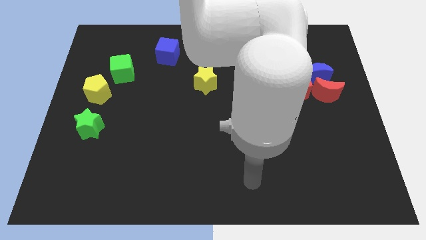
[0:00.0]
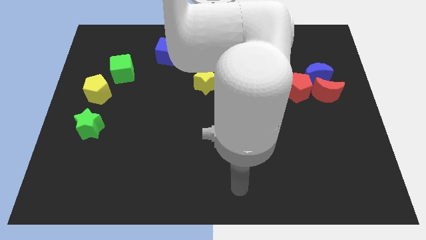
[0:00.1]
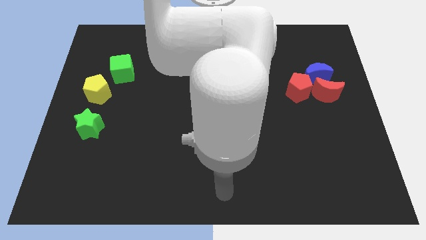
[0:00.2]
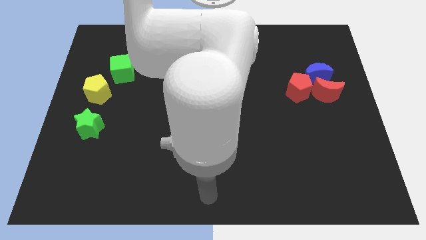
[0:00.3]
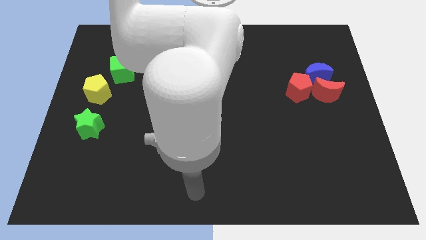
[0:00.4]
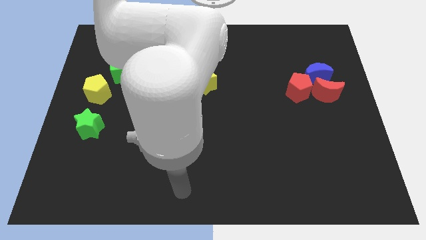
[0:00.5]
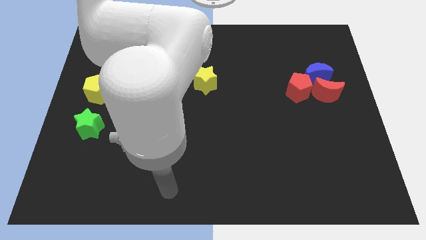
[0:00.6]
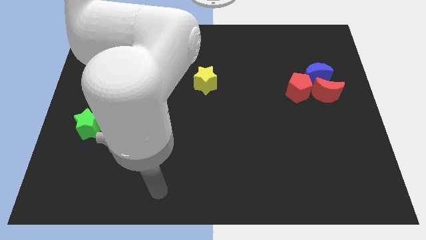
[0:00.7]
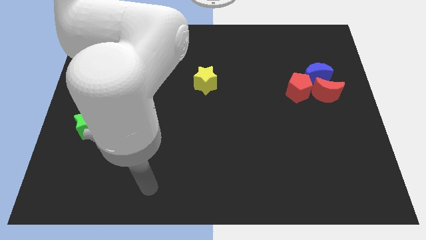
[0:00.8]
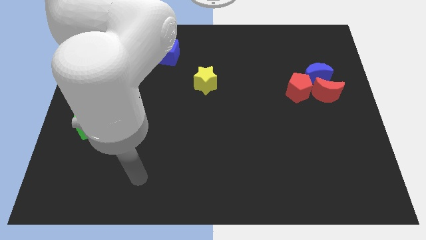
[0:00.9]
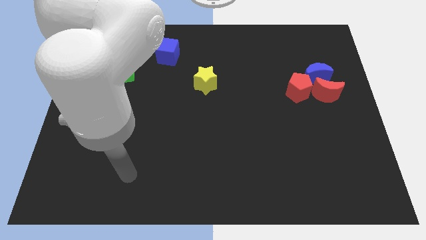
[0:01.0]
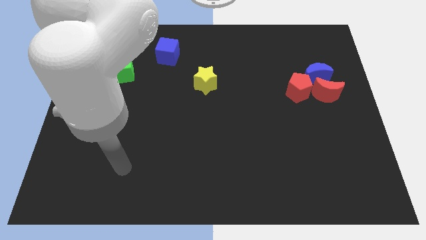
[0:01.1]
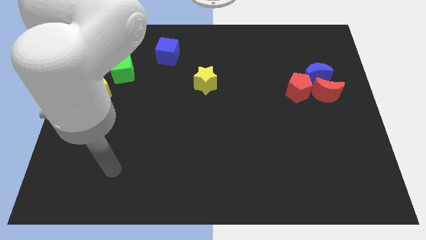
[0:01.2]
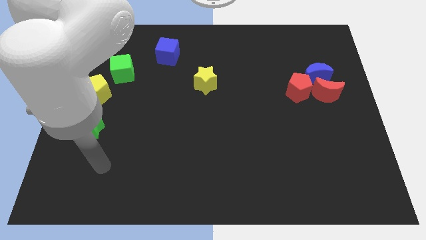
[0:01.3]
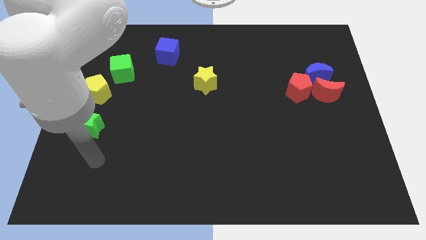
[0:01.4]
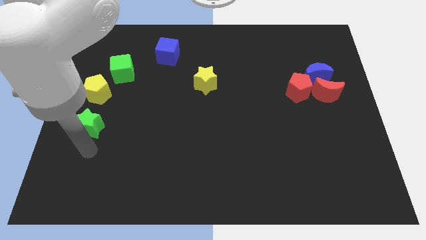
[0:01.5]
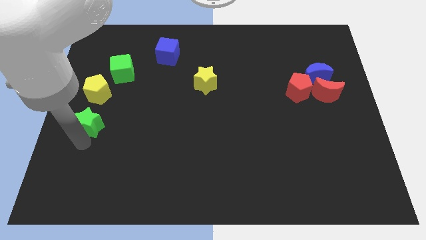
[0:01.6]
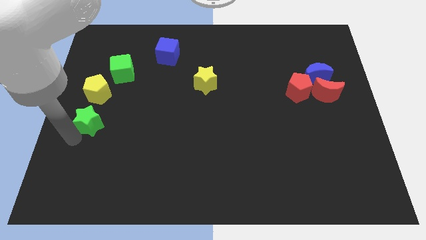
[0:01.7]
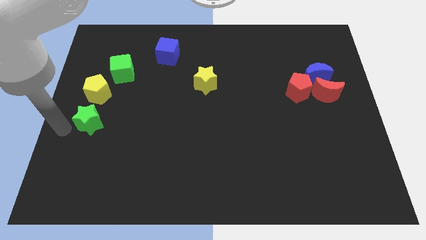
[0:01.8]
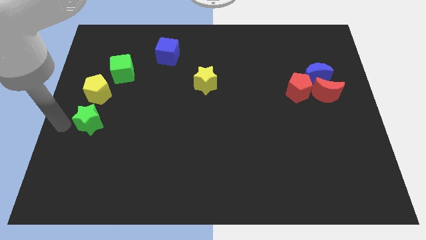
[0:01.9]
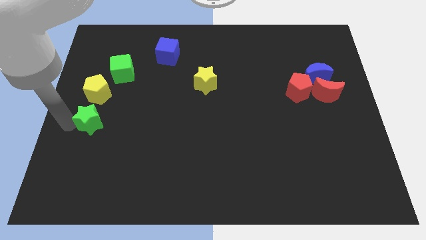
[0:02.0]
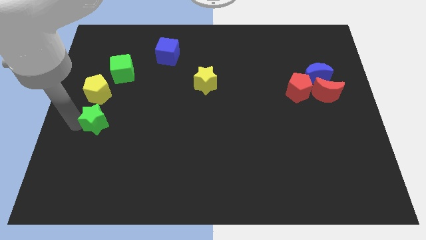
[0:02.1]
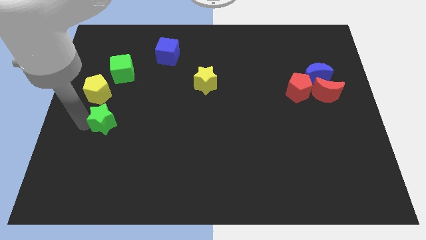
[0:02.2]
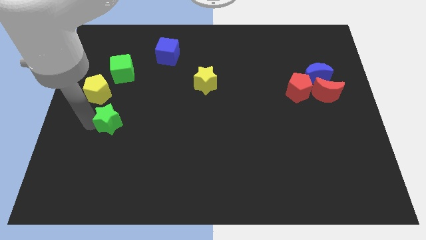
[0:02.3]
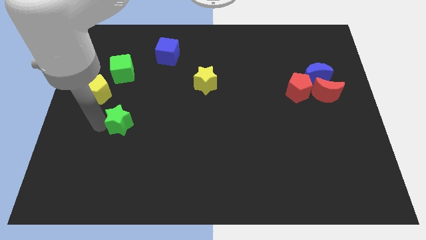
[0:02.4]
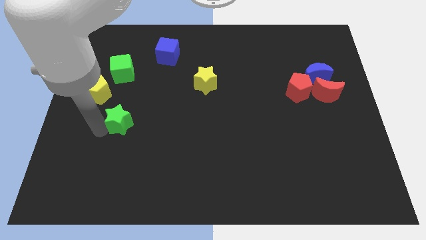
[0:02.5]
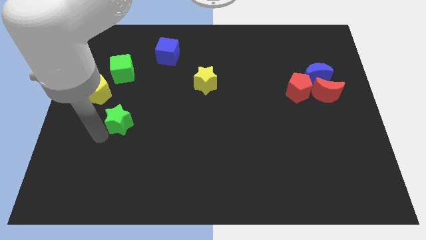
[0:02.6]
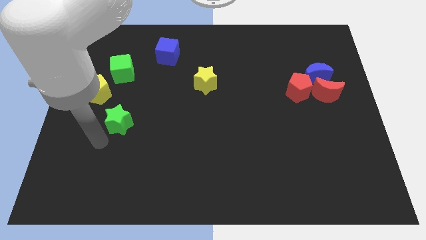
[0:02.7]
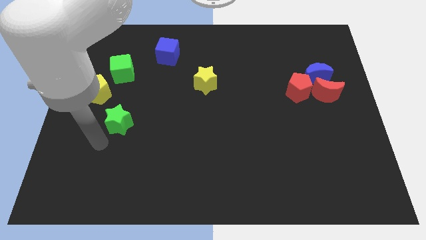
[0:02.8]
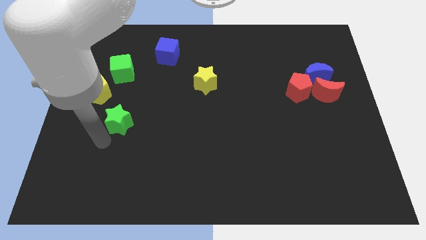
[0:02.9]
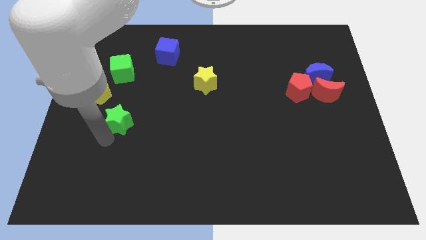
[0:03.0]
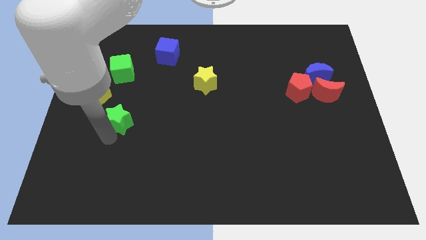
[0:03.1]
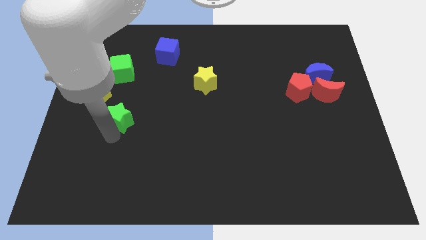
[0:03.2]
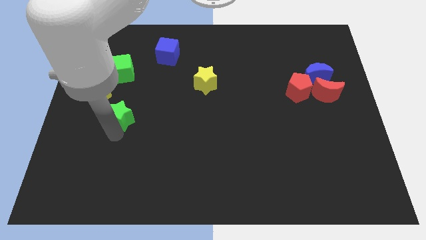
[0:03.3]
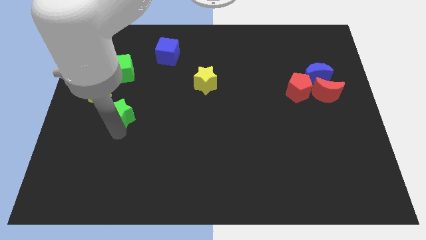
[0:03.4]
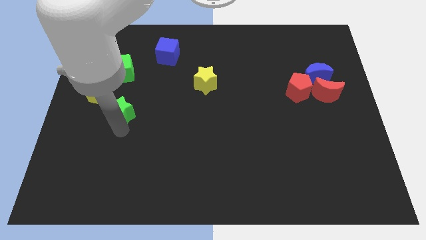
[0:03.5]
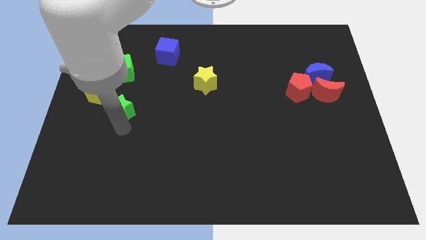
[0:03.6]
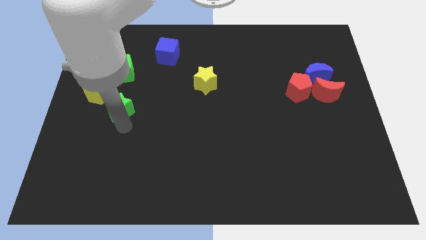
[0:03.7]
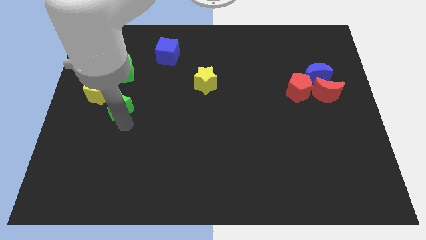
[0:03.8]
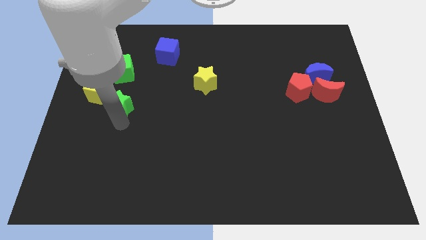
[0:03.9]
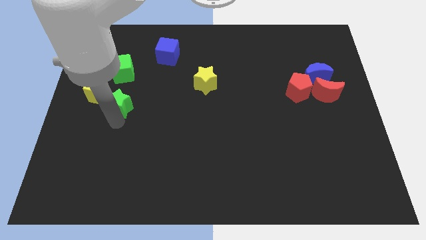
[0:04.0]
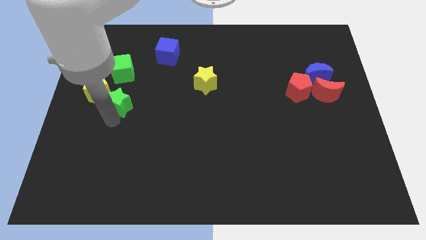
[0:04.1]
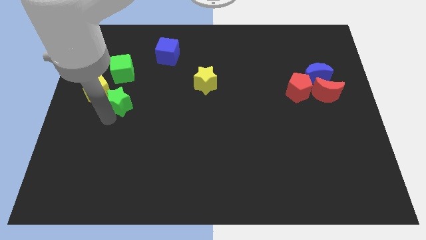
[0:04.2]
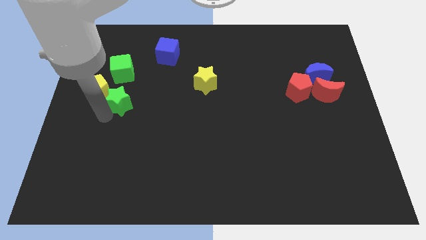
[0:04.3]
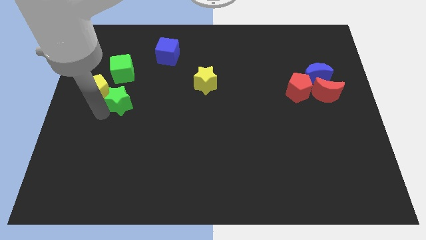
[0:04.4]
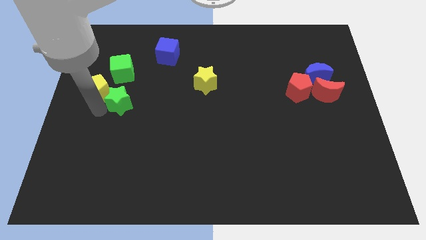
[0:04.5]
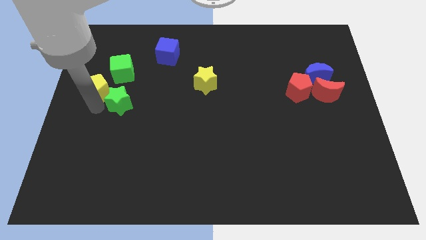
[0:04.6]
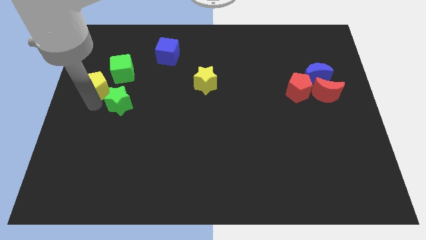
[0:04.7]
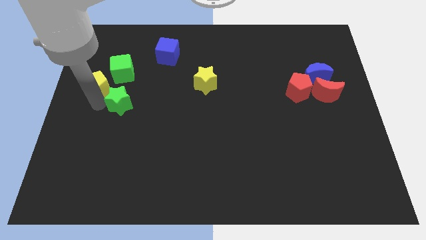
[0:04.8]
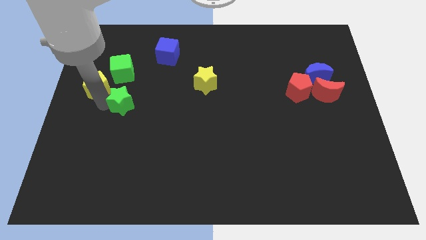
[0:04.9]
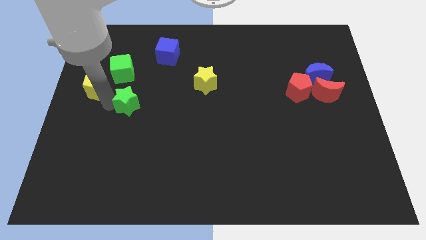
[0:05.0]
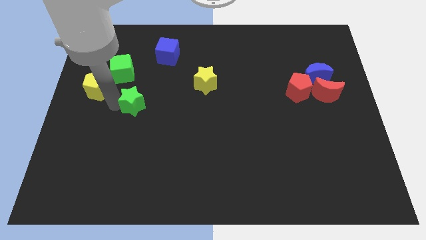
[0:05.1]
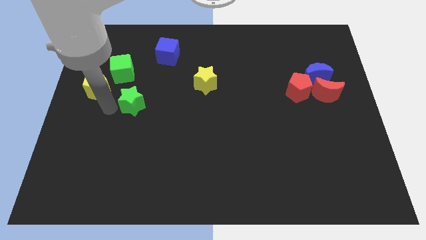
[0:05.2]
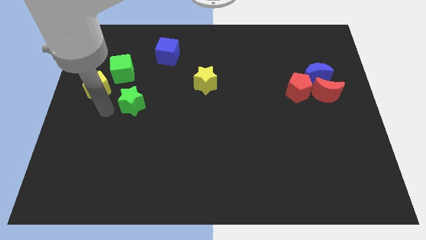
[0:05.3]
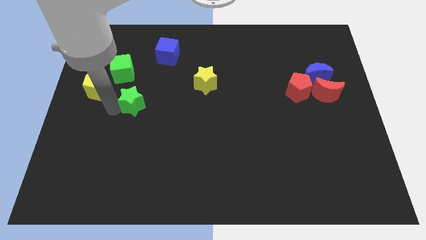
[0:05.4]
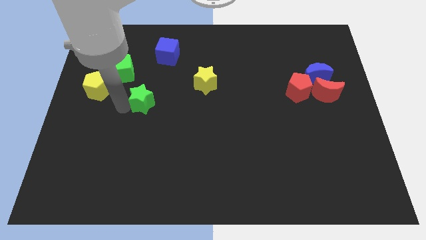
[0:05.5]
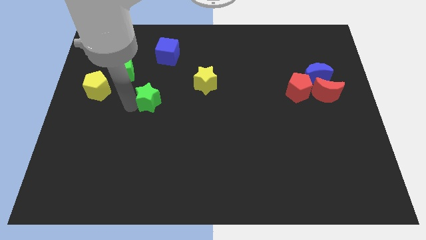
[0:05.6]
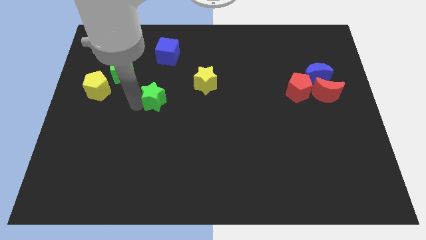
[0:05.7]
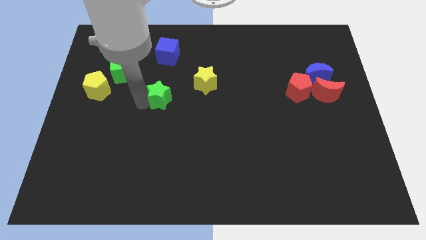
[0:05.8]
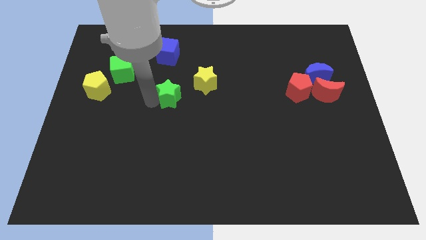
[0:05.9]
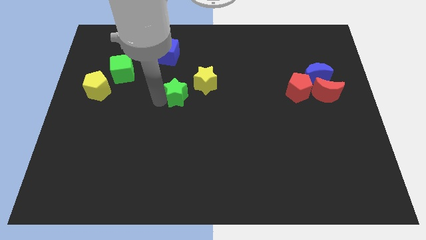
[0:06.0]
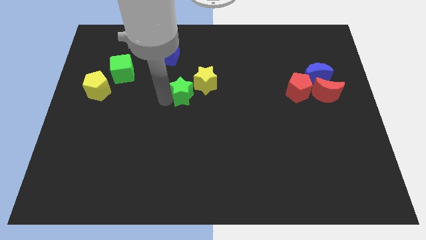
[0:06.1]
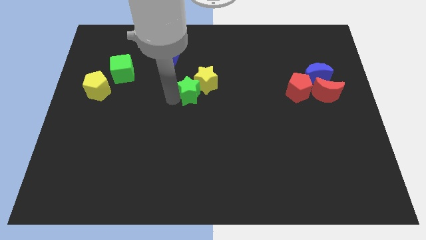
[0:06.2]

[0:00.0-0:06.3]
push the green star to the yellow star

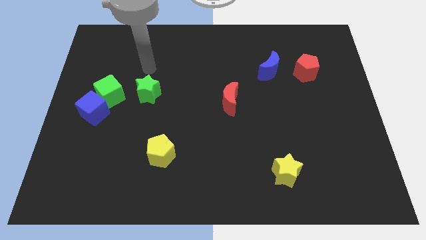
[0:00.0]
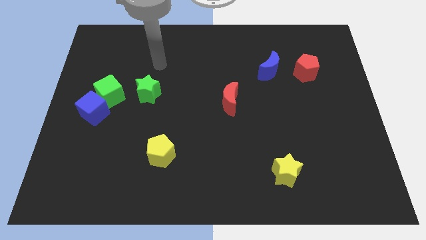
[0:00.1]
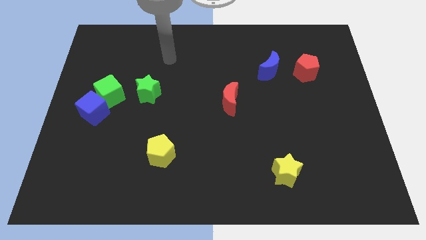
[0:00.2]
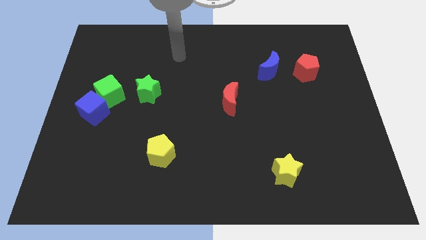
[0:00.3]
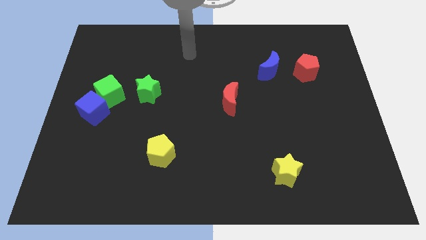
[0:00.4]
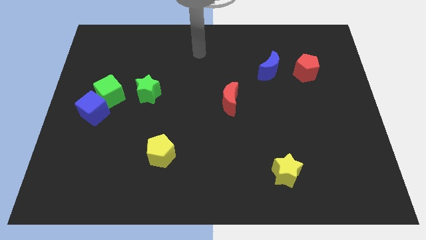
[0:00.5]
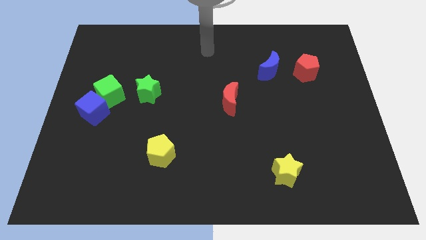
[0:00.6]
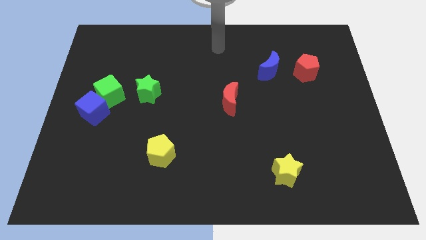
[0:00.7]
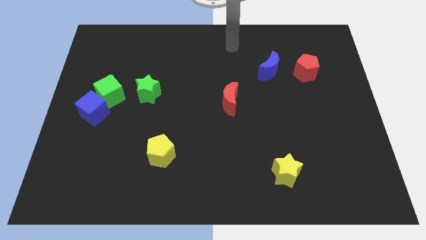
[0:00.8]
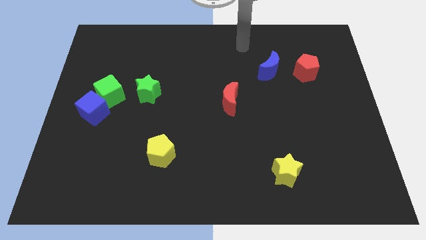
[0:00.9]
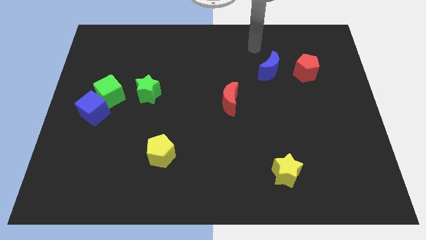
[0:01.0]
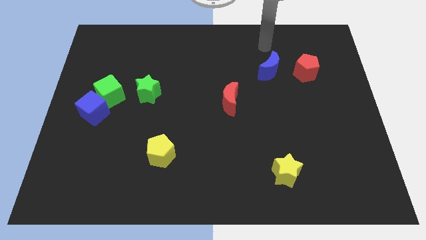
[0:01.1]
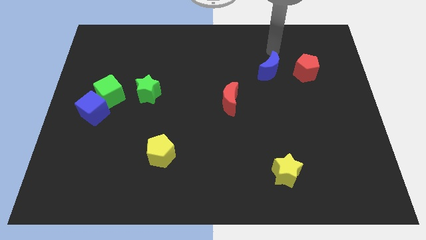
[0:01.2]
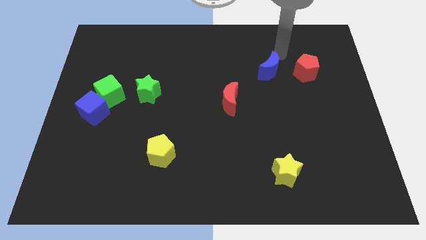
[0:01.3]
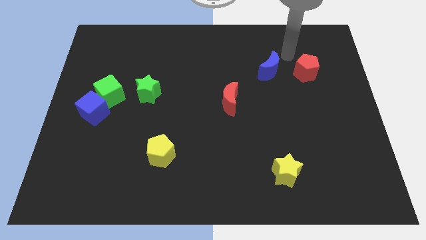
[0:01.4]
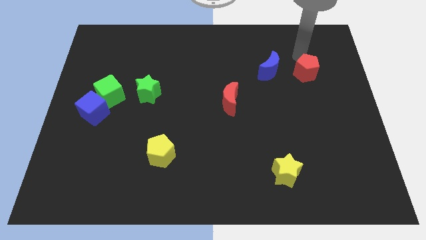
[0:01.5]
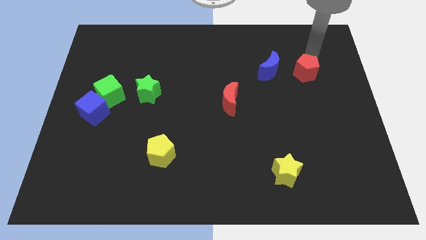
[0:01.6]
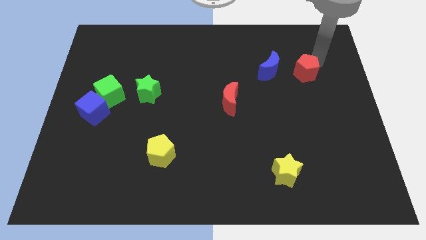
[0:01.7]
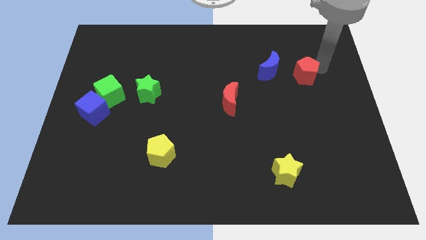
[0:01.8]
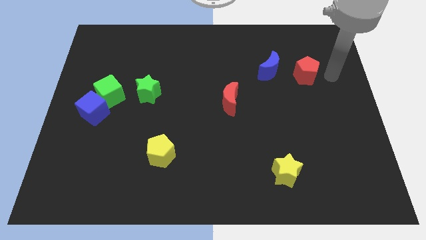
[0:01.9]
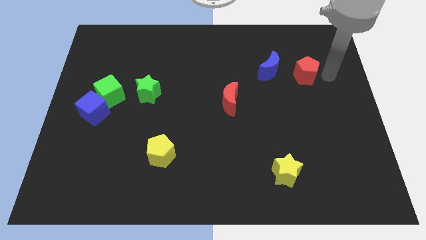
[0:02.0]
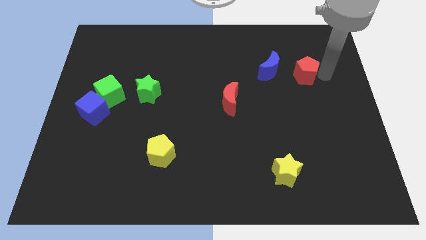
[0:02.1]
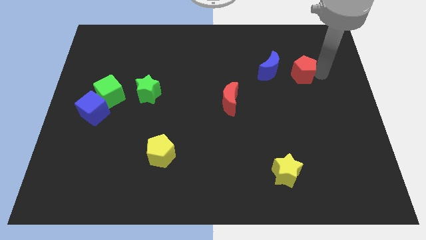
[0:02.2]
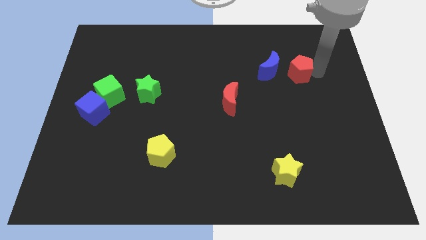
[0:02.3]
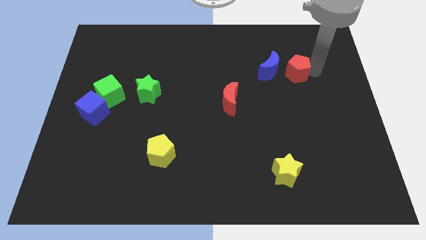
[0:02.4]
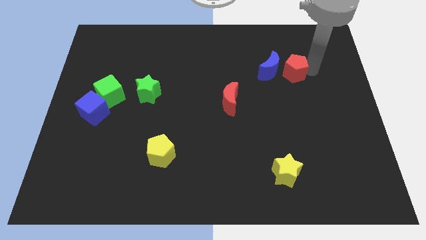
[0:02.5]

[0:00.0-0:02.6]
slide the red pentagon to the blue moon
